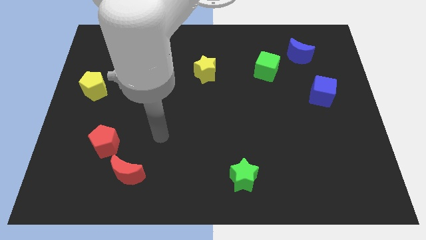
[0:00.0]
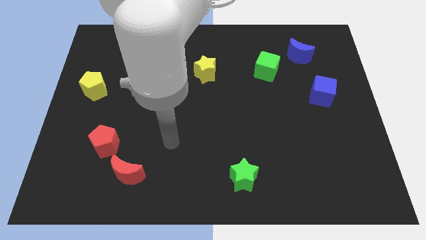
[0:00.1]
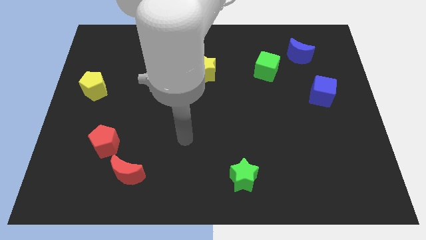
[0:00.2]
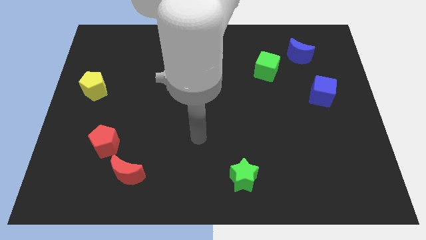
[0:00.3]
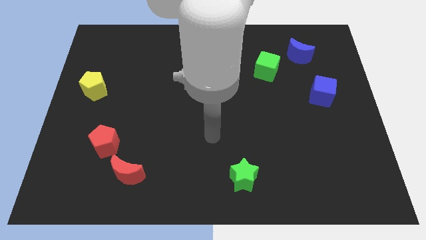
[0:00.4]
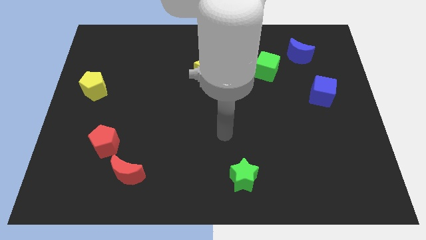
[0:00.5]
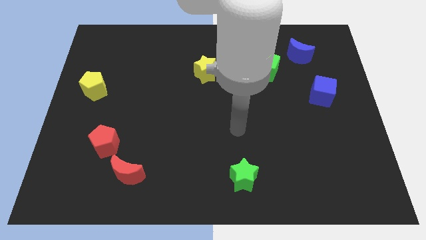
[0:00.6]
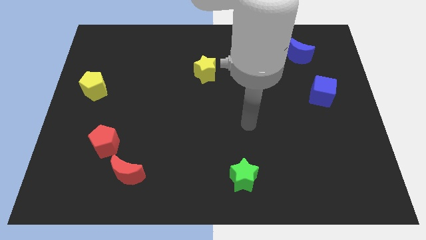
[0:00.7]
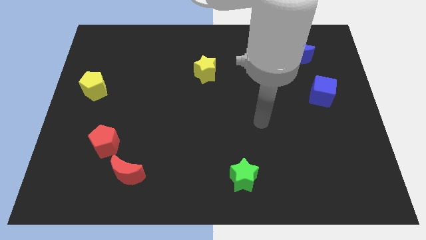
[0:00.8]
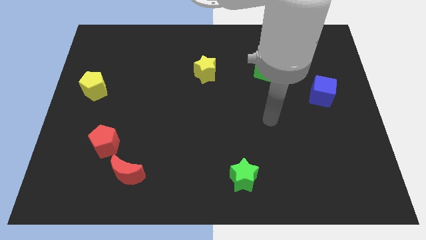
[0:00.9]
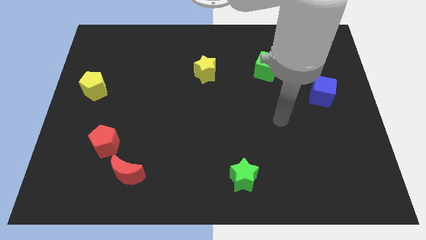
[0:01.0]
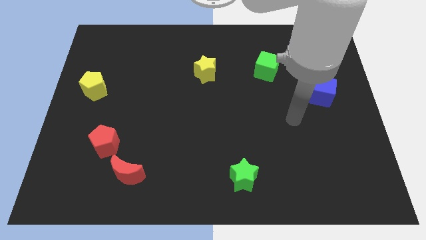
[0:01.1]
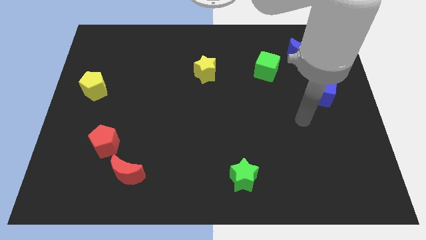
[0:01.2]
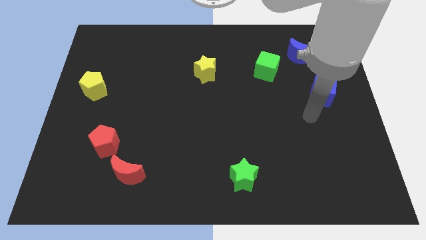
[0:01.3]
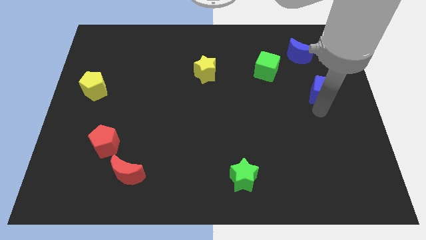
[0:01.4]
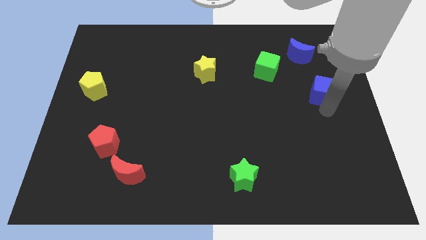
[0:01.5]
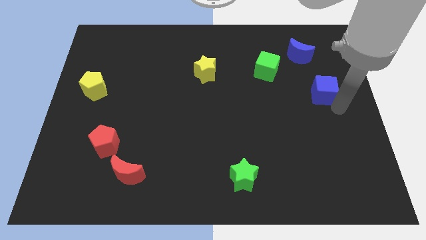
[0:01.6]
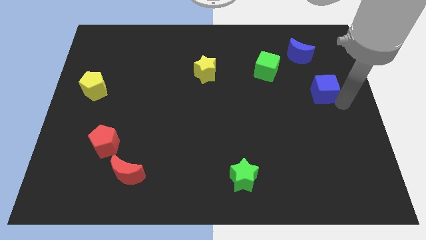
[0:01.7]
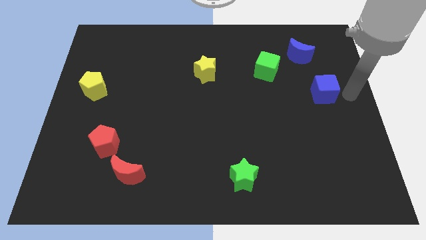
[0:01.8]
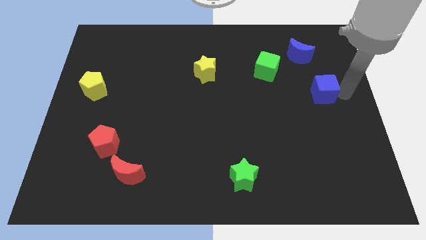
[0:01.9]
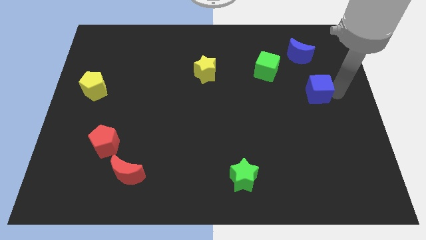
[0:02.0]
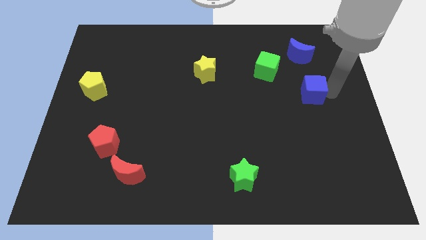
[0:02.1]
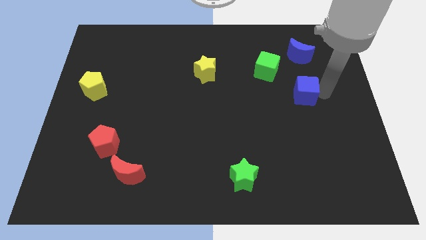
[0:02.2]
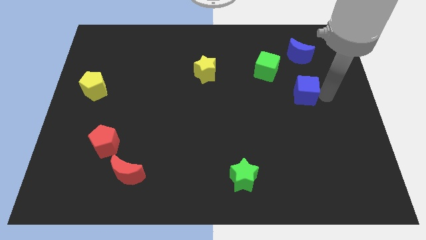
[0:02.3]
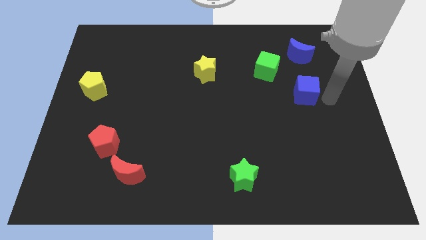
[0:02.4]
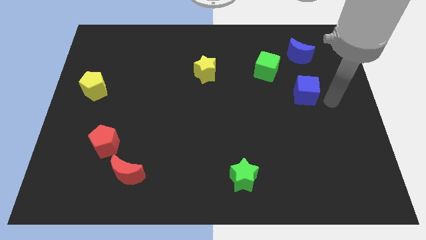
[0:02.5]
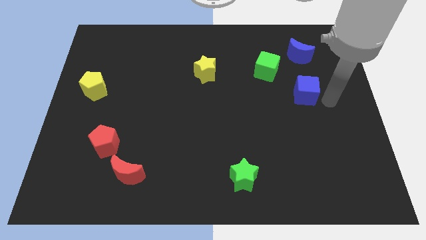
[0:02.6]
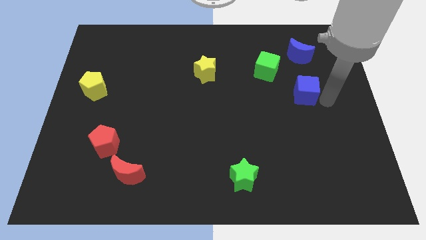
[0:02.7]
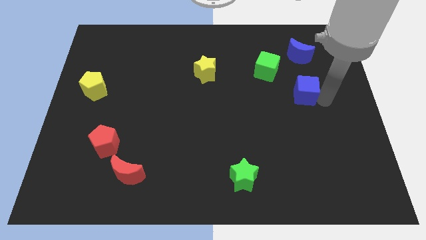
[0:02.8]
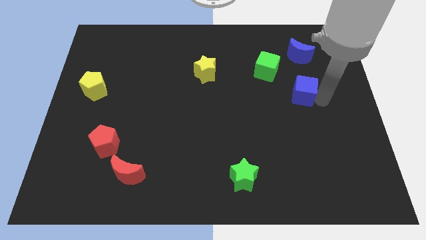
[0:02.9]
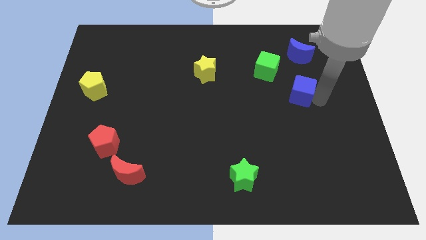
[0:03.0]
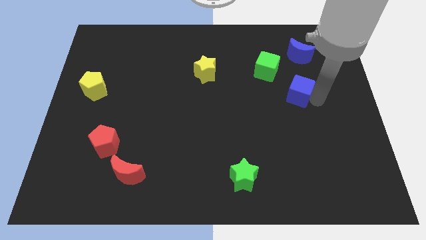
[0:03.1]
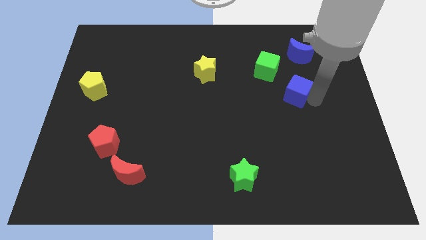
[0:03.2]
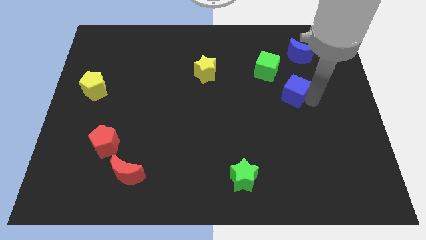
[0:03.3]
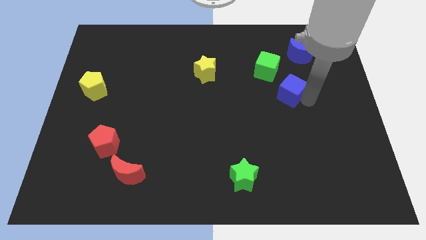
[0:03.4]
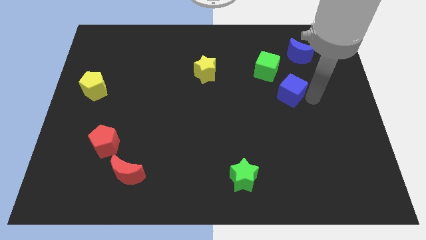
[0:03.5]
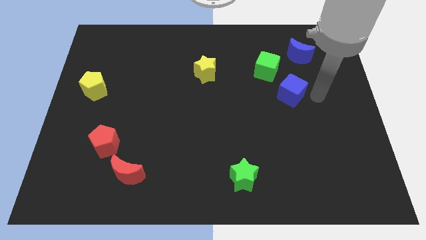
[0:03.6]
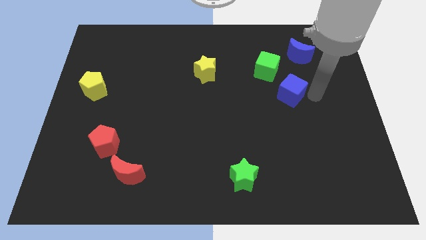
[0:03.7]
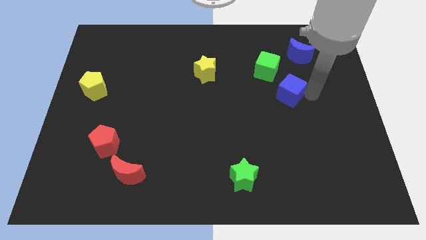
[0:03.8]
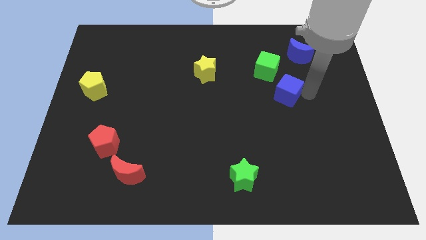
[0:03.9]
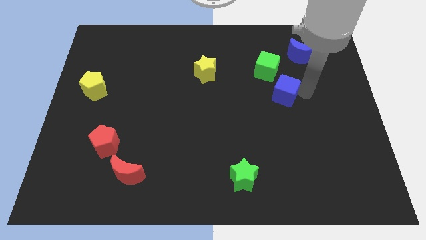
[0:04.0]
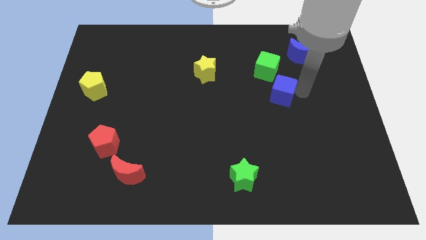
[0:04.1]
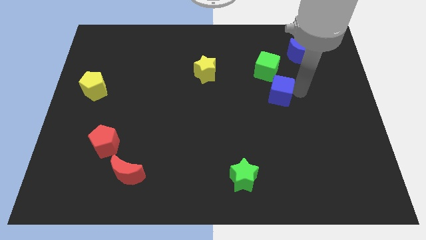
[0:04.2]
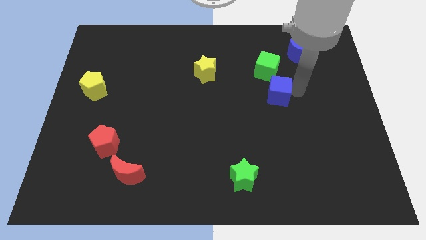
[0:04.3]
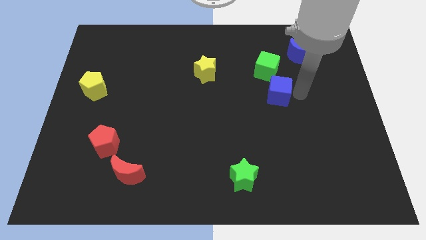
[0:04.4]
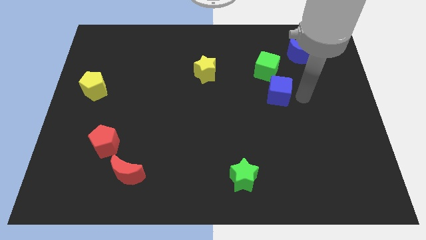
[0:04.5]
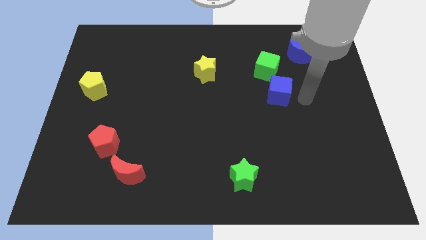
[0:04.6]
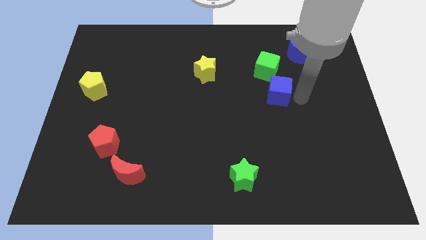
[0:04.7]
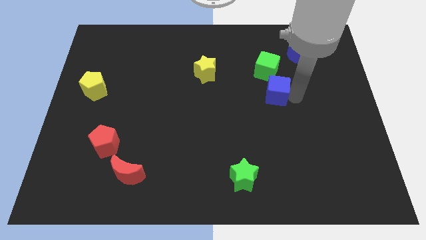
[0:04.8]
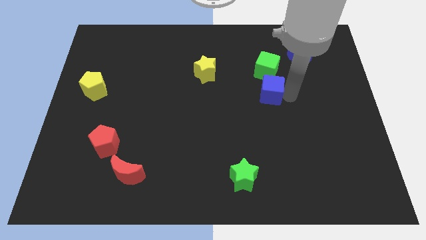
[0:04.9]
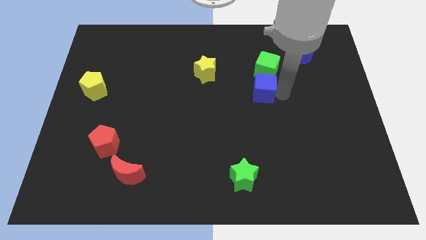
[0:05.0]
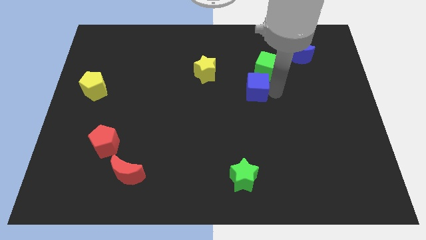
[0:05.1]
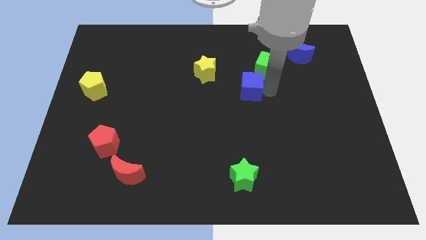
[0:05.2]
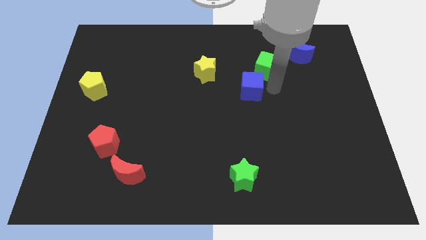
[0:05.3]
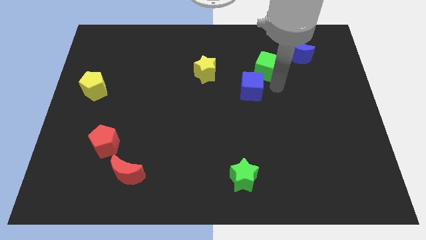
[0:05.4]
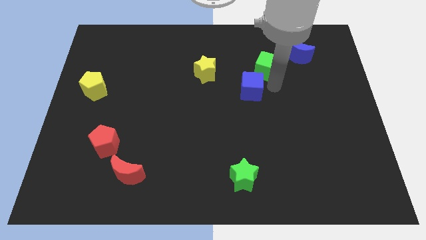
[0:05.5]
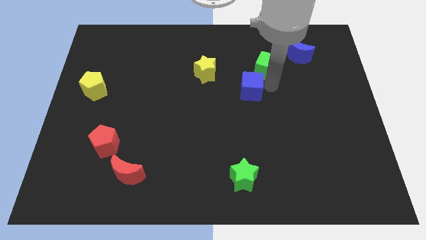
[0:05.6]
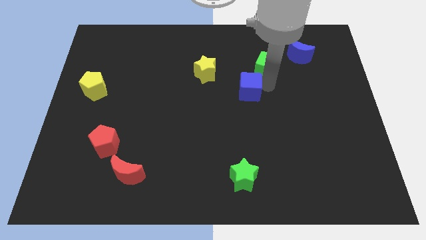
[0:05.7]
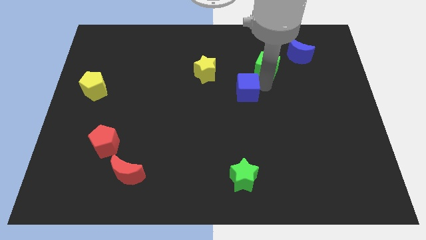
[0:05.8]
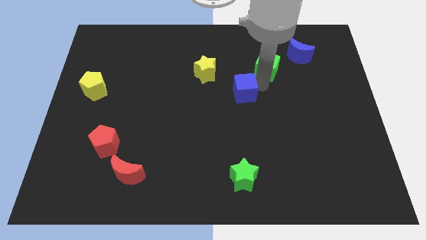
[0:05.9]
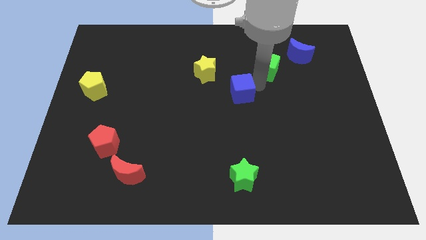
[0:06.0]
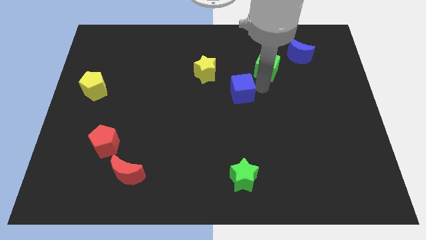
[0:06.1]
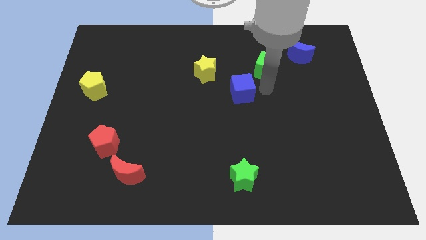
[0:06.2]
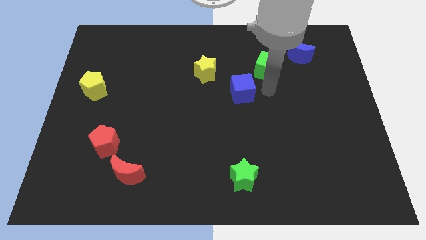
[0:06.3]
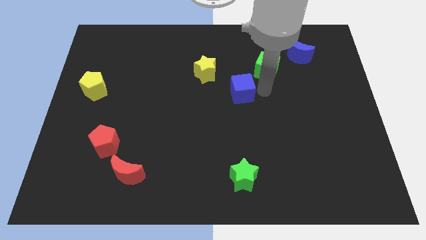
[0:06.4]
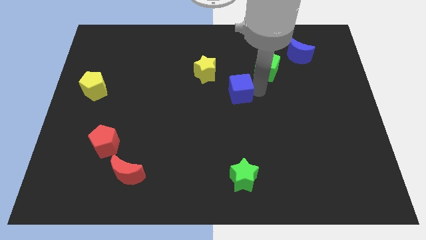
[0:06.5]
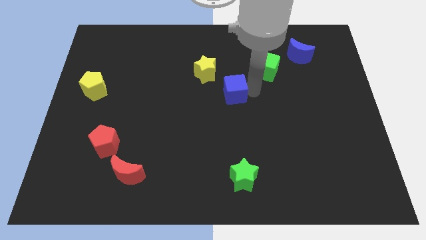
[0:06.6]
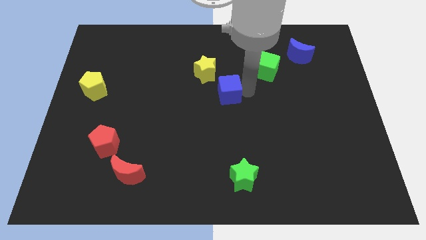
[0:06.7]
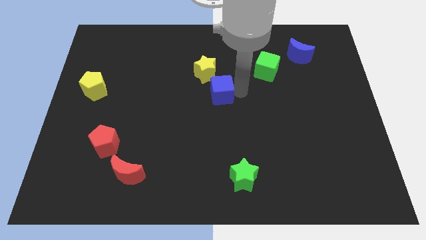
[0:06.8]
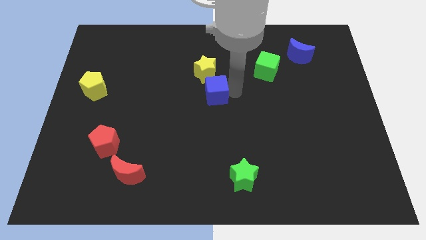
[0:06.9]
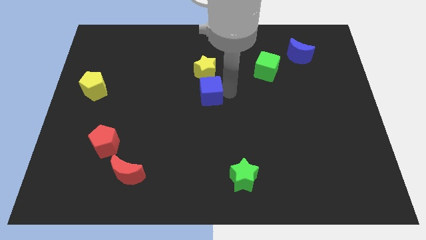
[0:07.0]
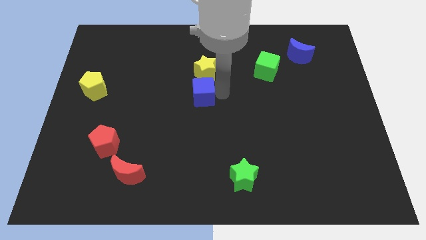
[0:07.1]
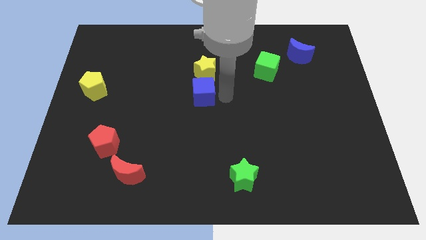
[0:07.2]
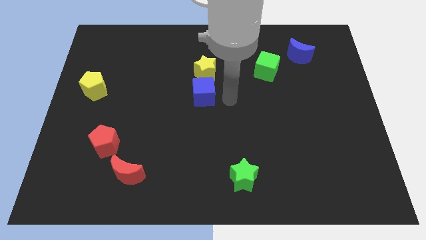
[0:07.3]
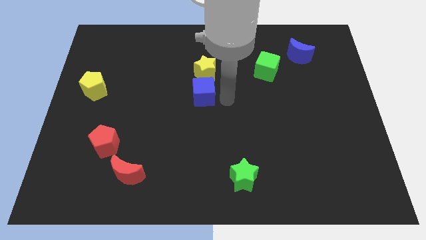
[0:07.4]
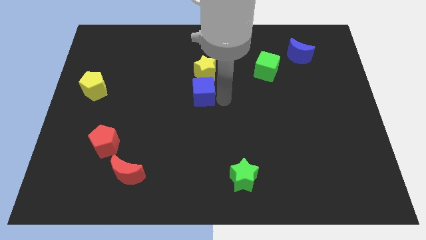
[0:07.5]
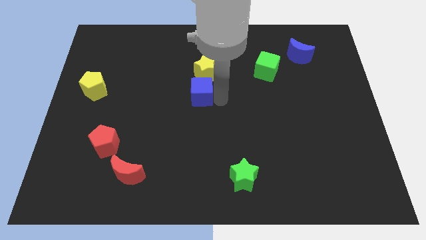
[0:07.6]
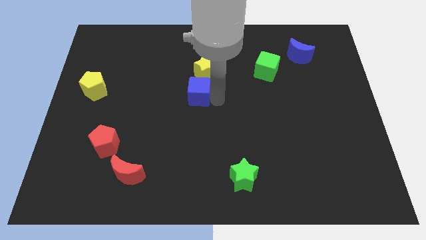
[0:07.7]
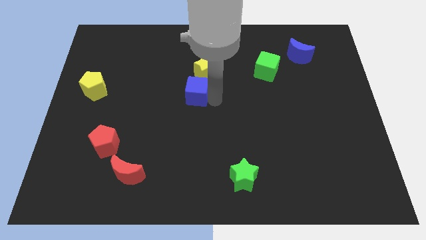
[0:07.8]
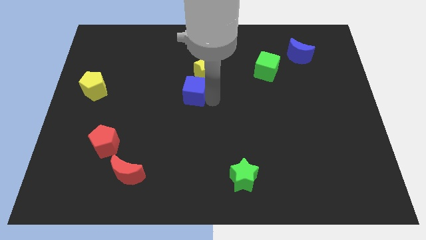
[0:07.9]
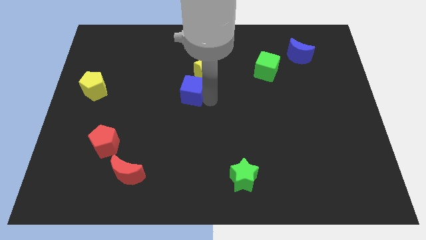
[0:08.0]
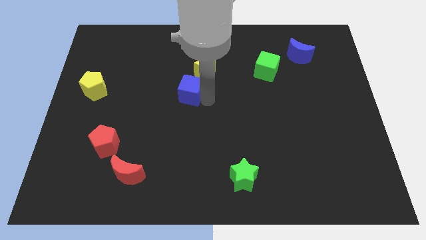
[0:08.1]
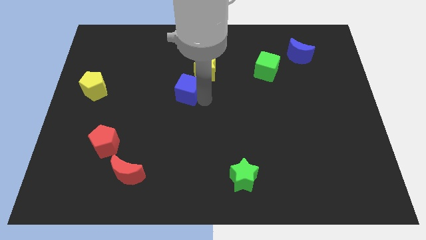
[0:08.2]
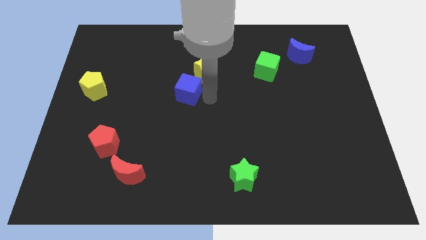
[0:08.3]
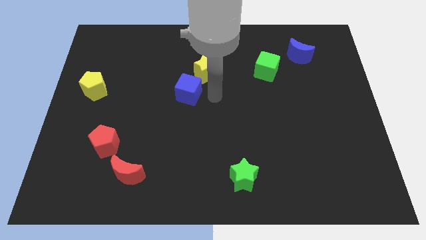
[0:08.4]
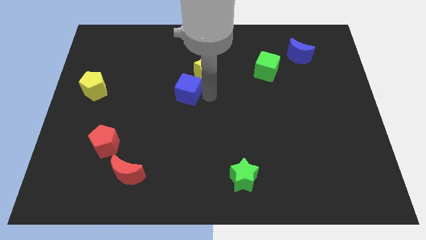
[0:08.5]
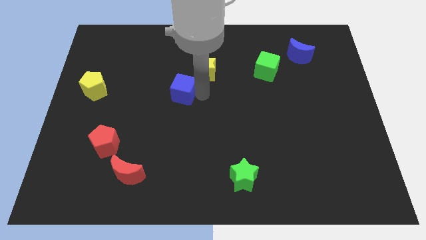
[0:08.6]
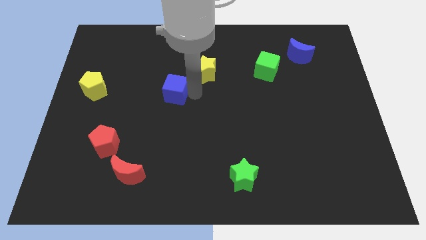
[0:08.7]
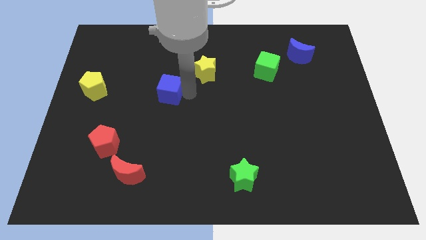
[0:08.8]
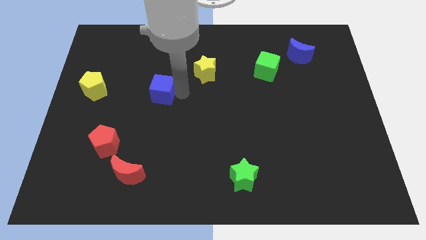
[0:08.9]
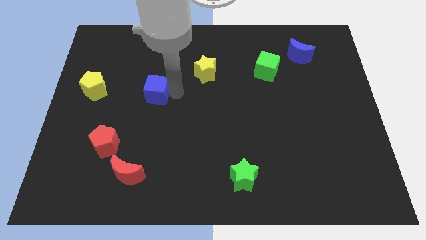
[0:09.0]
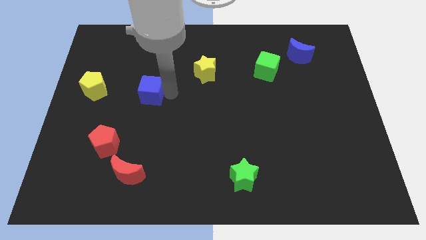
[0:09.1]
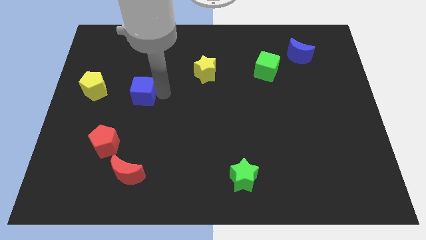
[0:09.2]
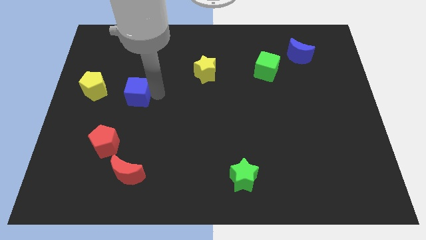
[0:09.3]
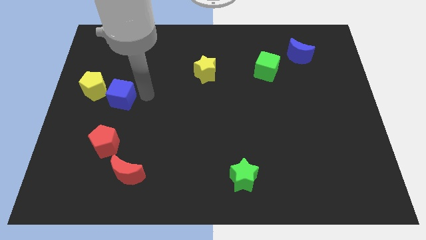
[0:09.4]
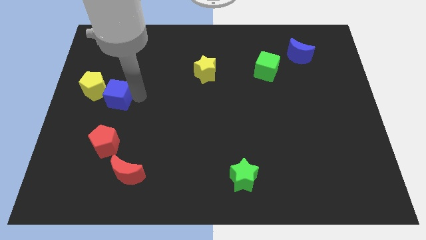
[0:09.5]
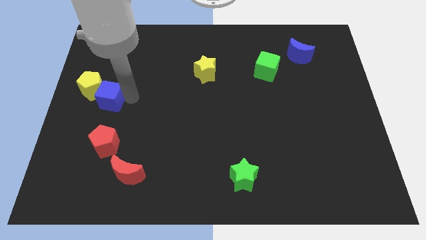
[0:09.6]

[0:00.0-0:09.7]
put the blue cube towards the yellow pentagon
